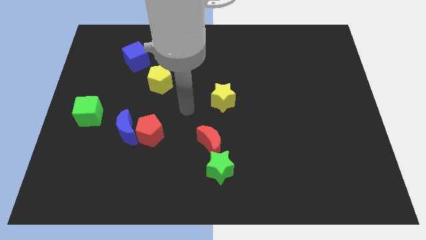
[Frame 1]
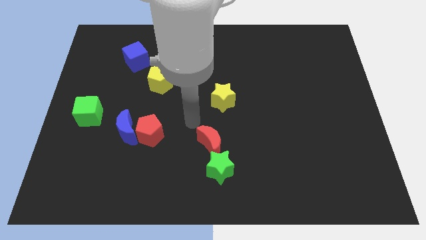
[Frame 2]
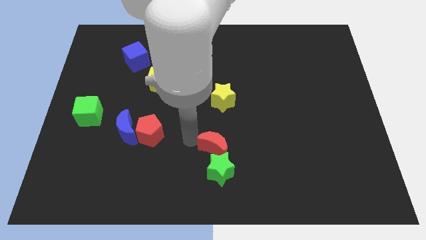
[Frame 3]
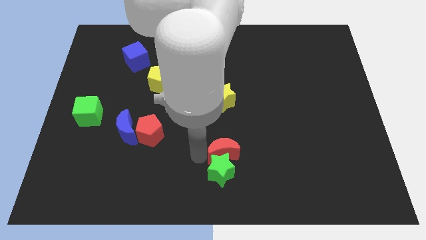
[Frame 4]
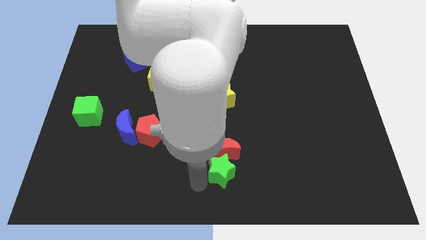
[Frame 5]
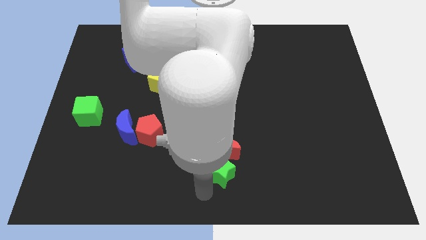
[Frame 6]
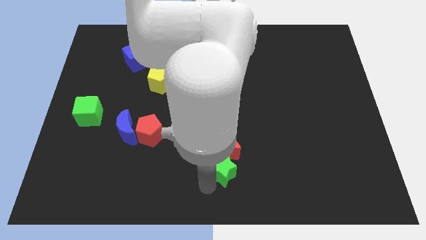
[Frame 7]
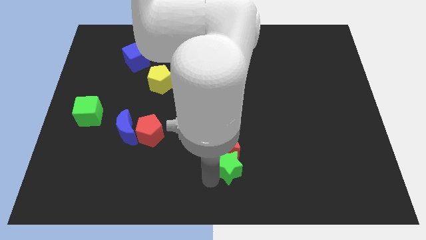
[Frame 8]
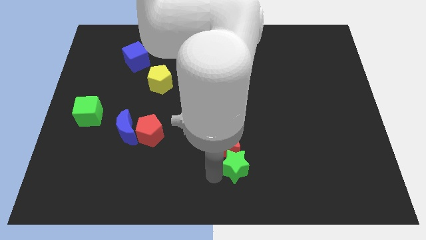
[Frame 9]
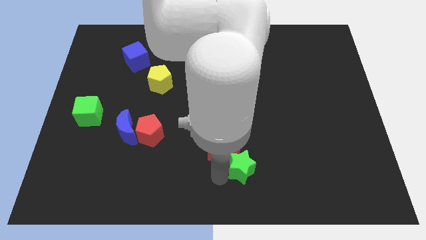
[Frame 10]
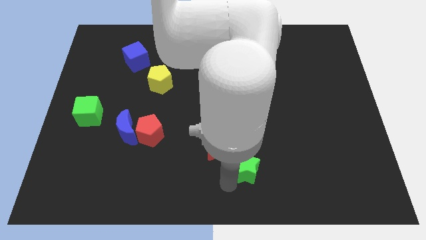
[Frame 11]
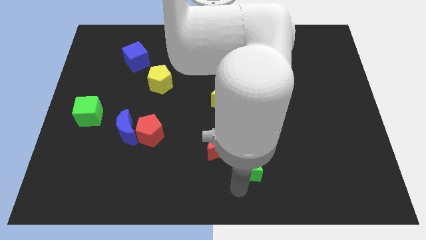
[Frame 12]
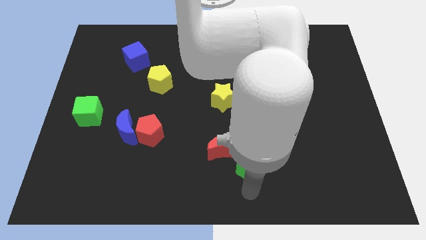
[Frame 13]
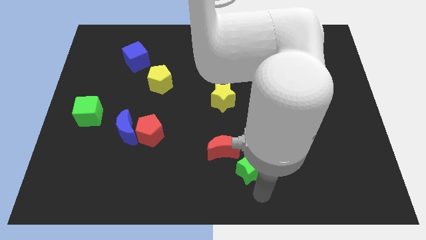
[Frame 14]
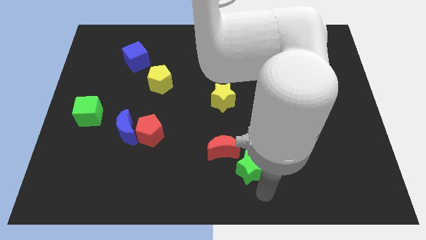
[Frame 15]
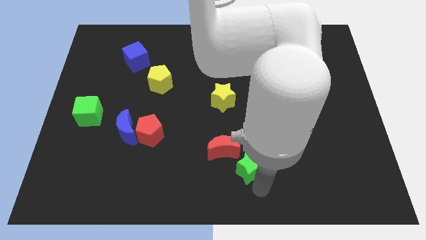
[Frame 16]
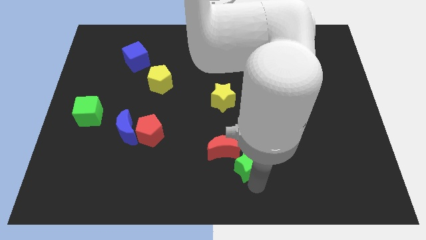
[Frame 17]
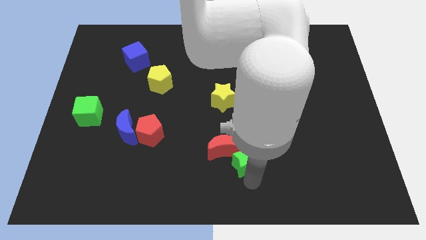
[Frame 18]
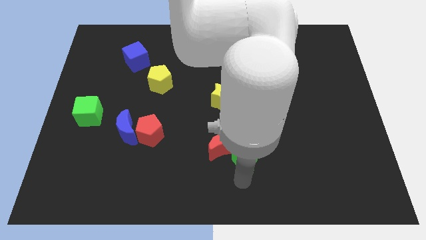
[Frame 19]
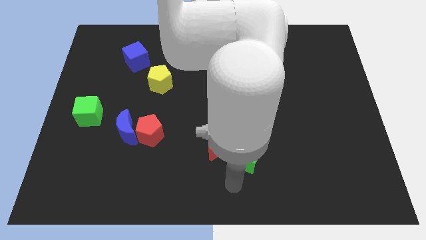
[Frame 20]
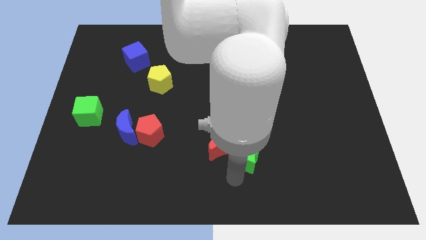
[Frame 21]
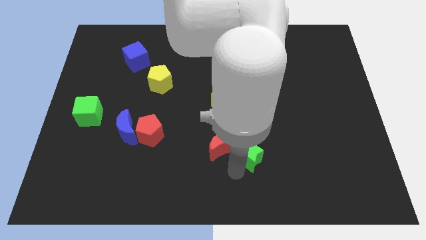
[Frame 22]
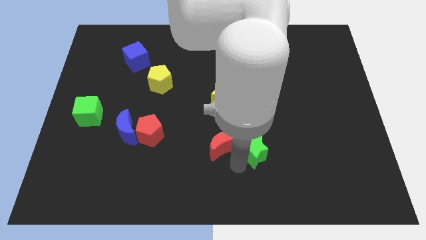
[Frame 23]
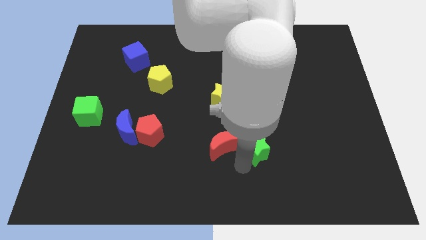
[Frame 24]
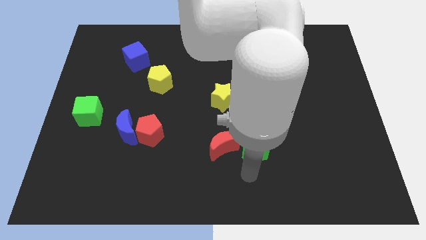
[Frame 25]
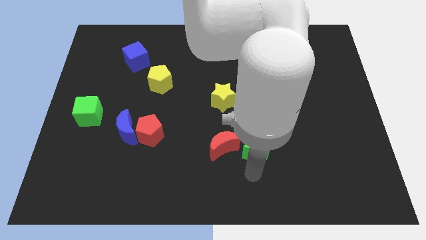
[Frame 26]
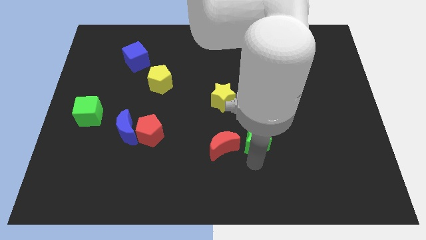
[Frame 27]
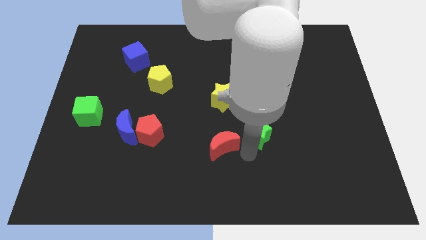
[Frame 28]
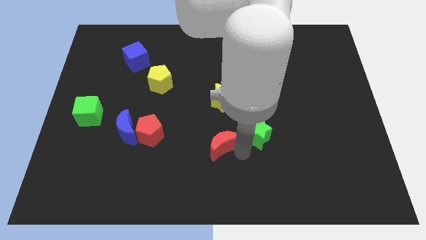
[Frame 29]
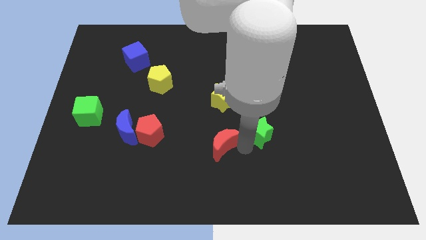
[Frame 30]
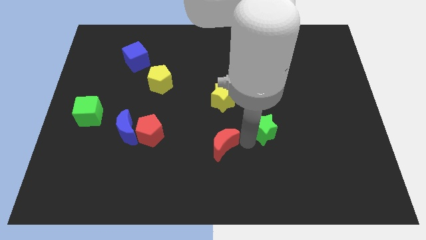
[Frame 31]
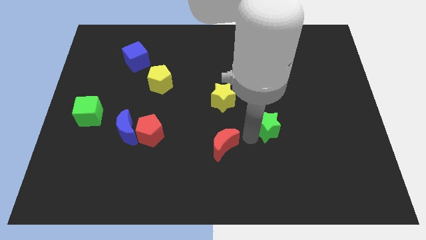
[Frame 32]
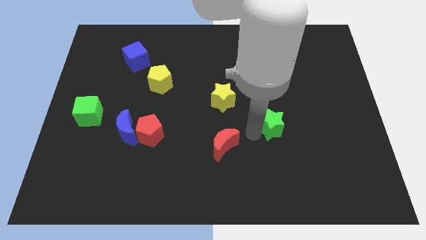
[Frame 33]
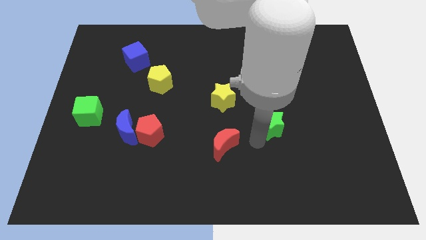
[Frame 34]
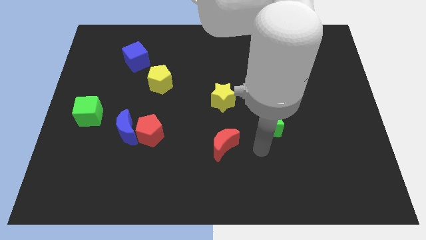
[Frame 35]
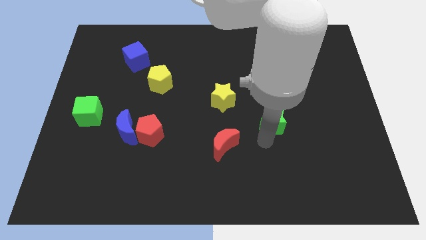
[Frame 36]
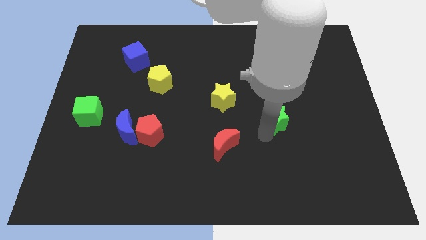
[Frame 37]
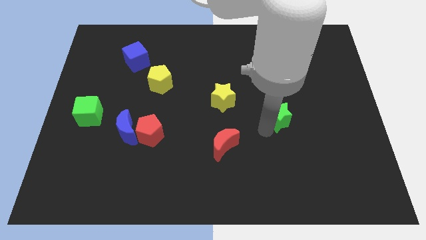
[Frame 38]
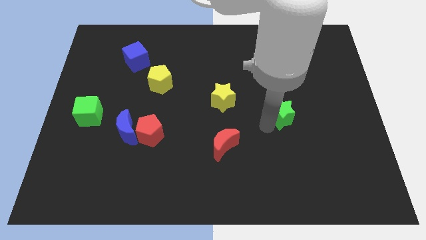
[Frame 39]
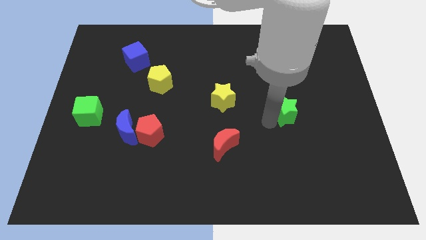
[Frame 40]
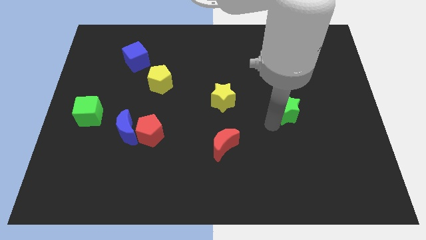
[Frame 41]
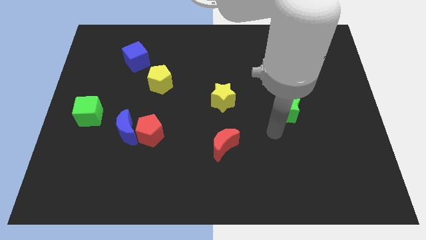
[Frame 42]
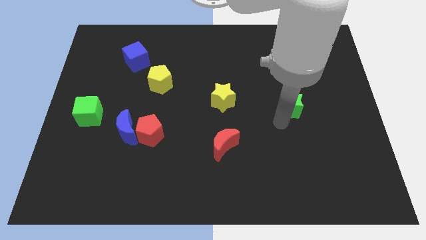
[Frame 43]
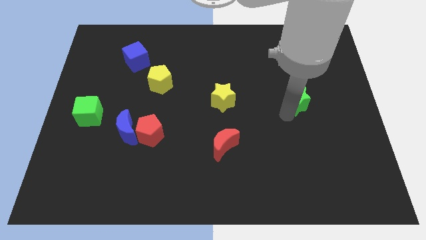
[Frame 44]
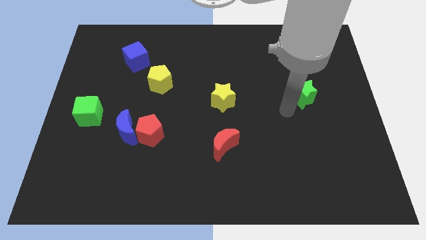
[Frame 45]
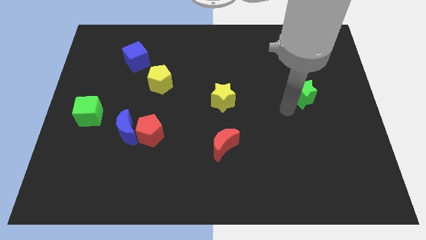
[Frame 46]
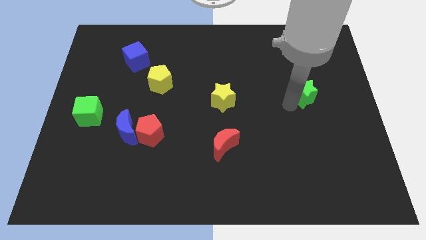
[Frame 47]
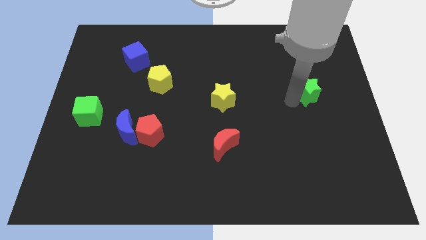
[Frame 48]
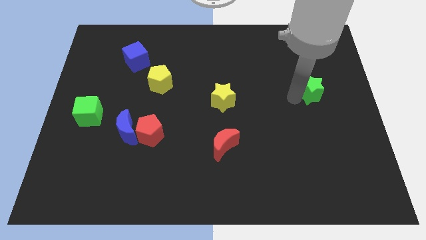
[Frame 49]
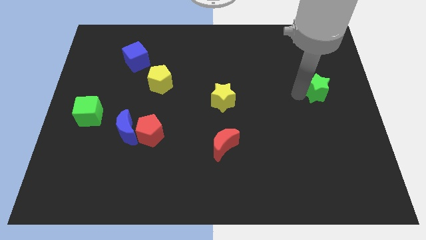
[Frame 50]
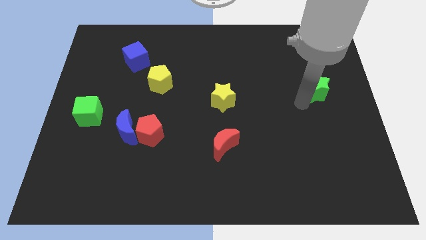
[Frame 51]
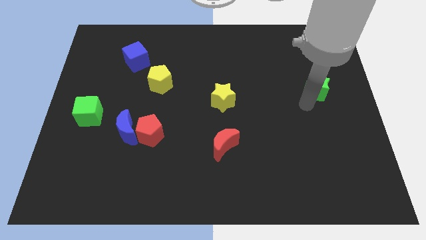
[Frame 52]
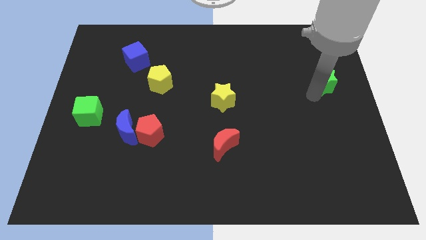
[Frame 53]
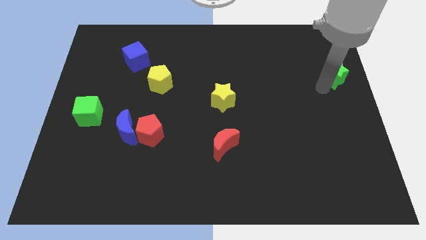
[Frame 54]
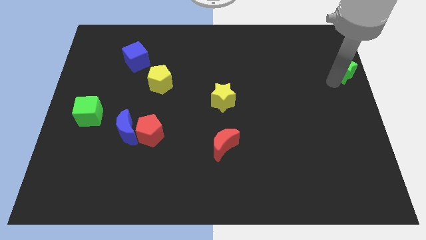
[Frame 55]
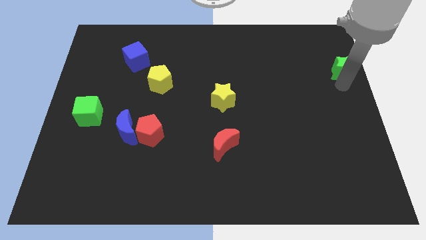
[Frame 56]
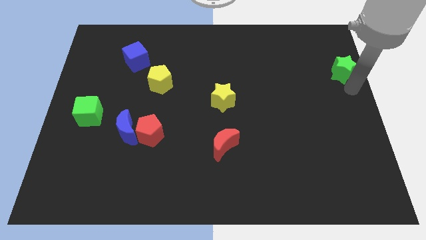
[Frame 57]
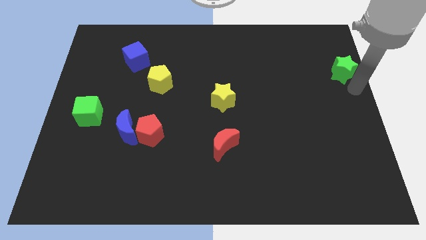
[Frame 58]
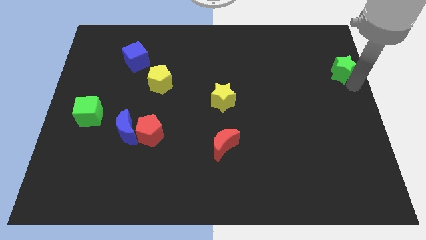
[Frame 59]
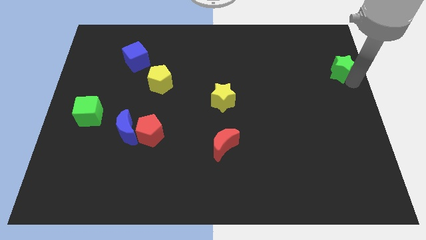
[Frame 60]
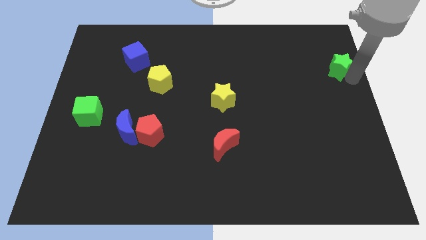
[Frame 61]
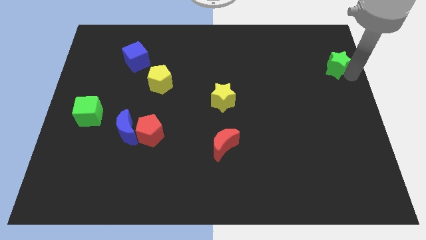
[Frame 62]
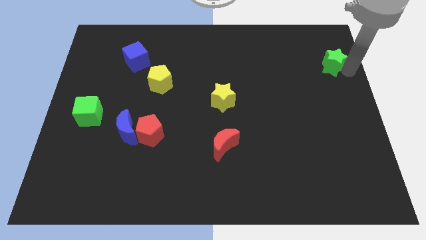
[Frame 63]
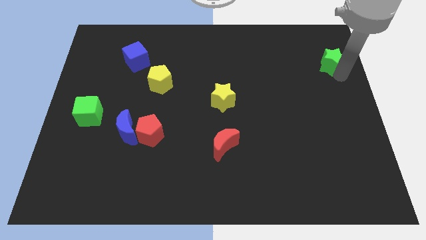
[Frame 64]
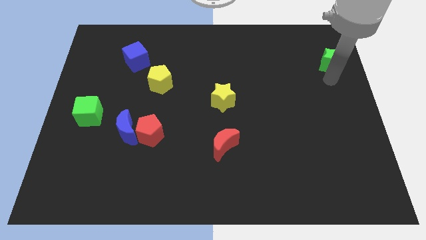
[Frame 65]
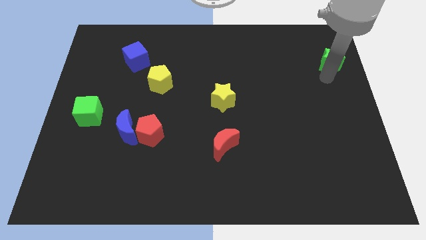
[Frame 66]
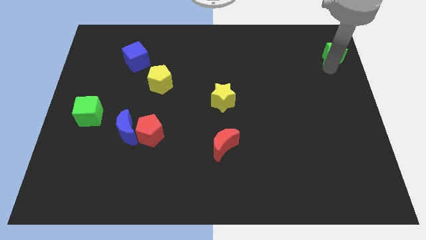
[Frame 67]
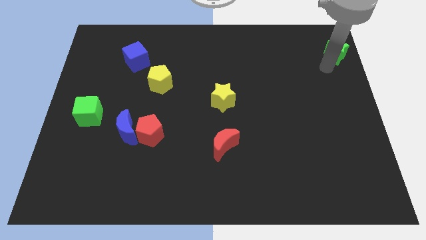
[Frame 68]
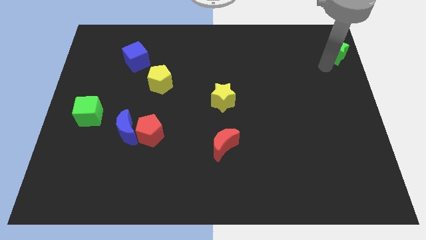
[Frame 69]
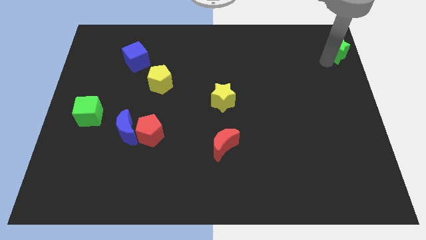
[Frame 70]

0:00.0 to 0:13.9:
push the green star to the upper right corner

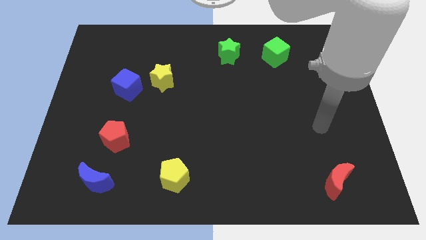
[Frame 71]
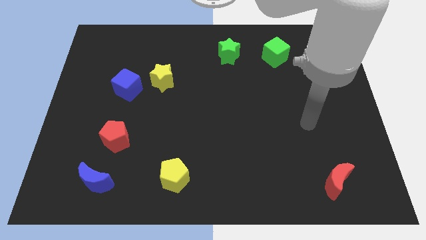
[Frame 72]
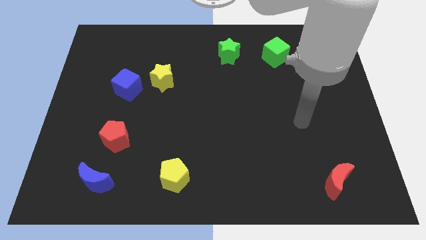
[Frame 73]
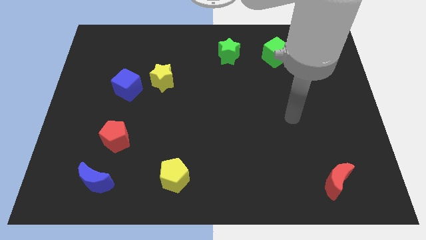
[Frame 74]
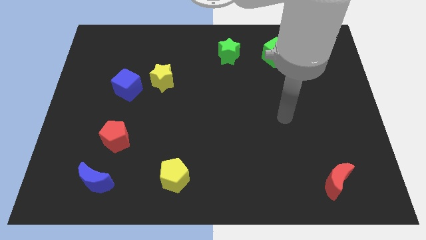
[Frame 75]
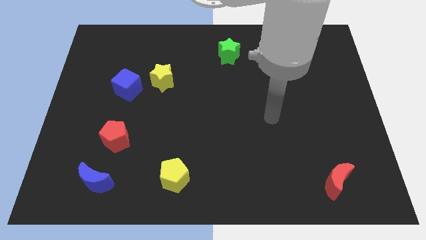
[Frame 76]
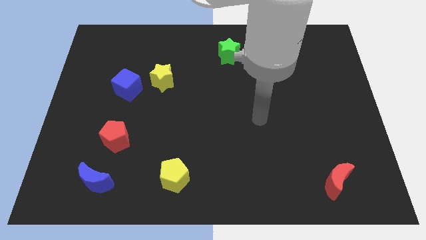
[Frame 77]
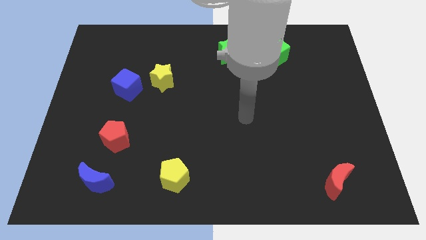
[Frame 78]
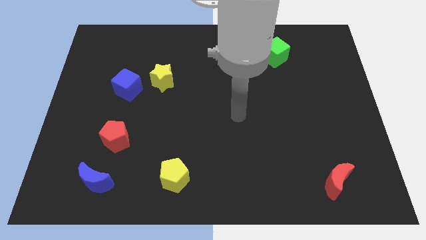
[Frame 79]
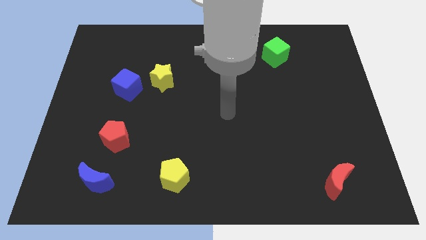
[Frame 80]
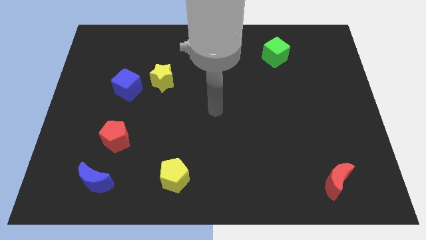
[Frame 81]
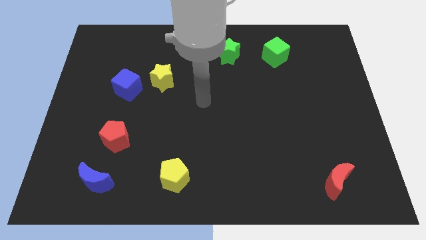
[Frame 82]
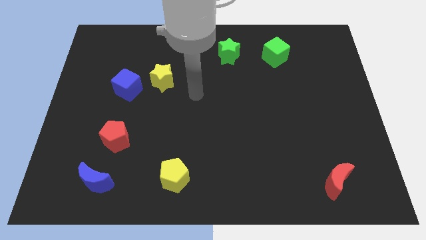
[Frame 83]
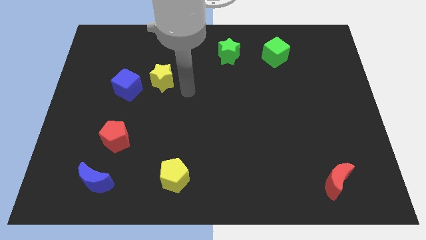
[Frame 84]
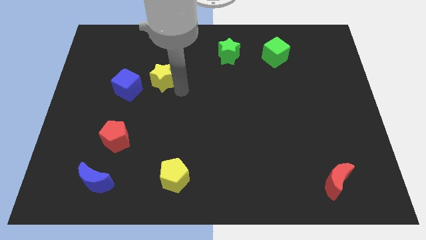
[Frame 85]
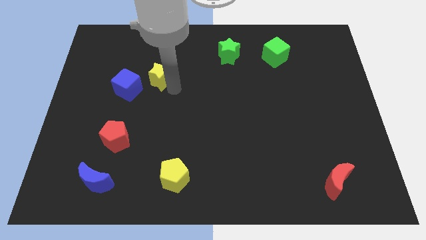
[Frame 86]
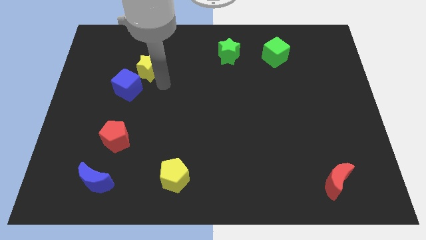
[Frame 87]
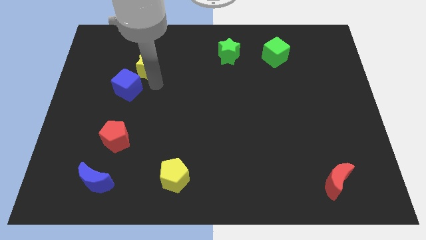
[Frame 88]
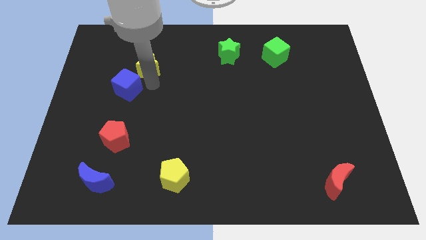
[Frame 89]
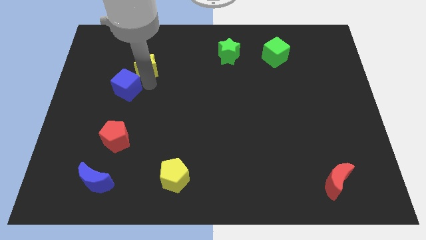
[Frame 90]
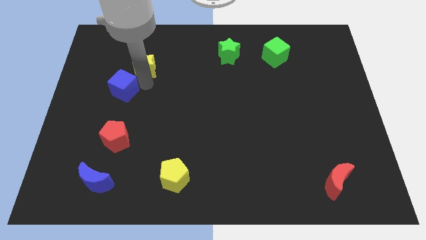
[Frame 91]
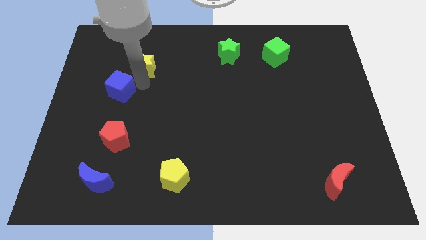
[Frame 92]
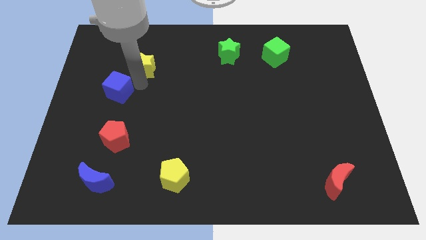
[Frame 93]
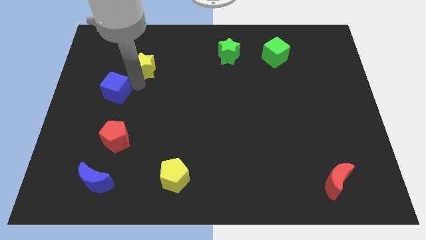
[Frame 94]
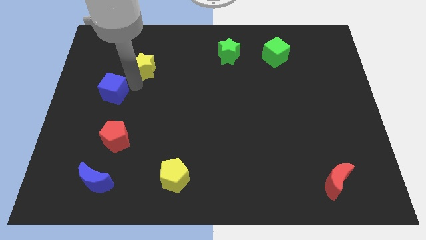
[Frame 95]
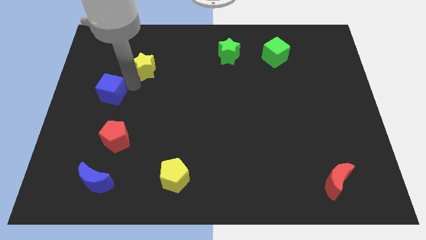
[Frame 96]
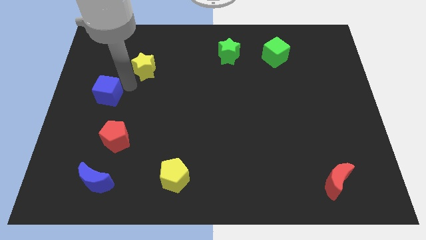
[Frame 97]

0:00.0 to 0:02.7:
put the blue cube to the left side
